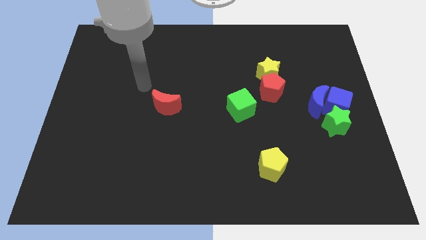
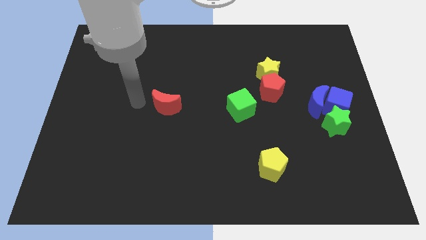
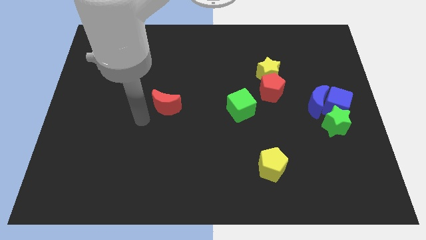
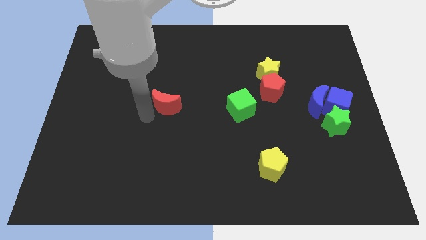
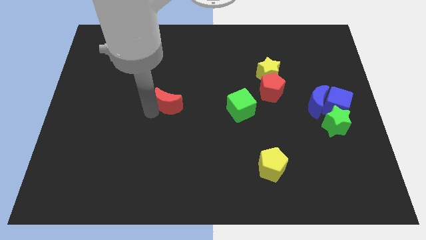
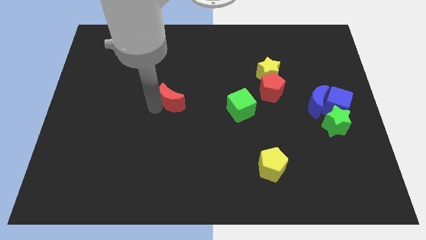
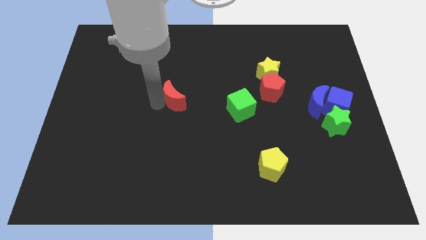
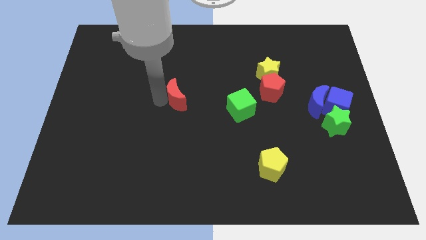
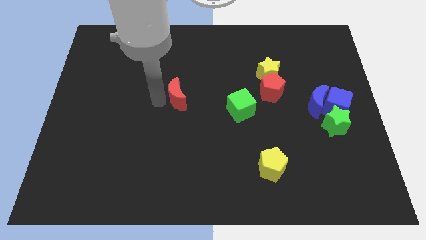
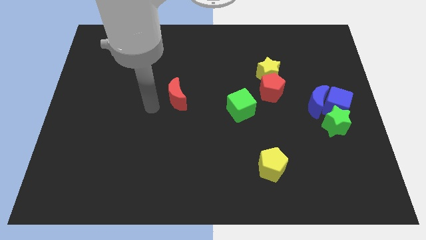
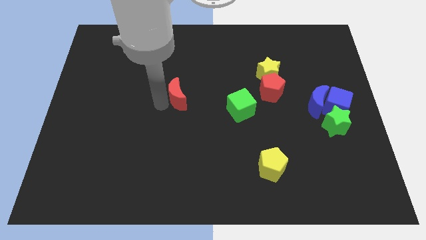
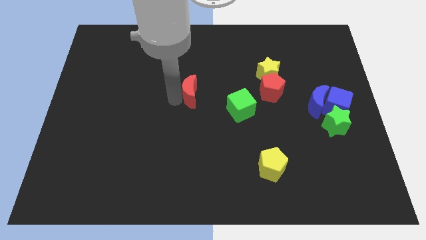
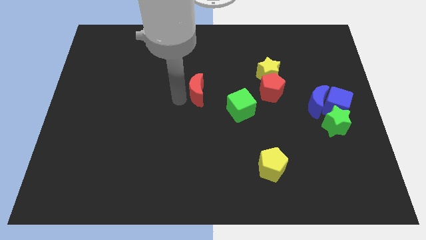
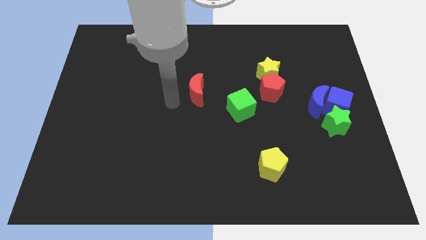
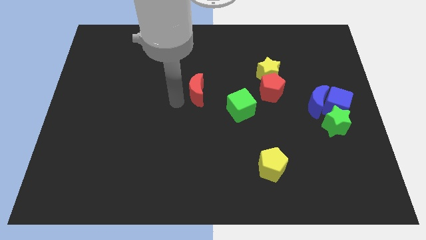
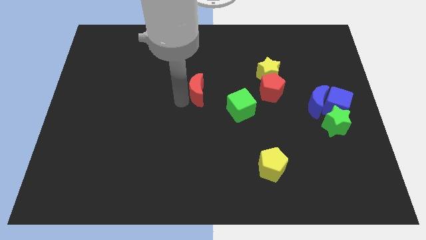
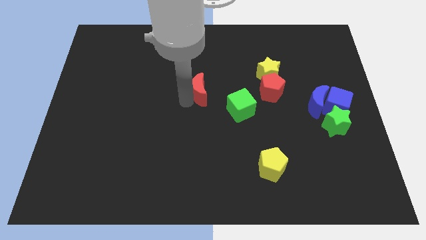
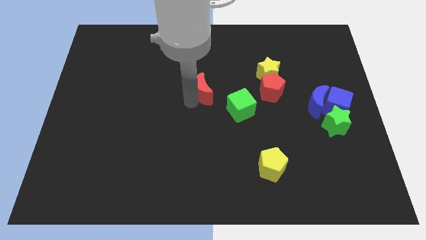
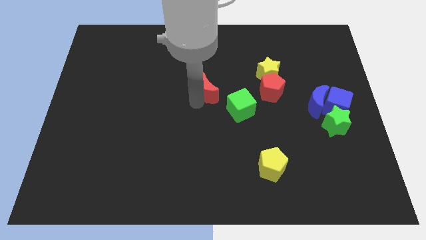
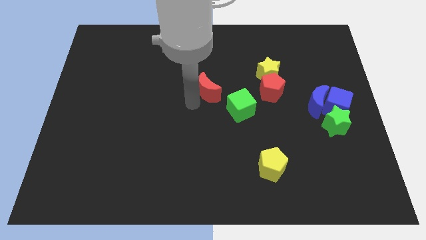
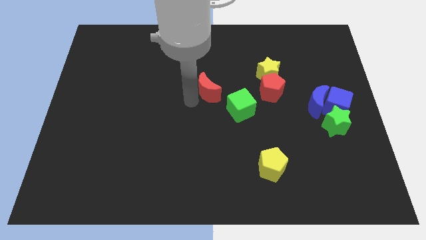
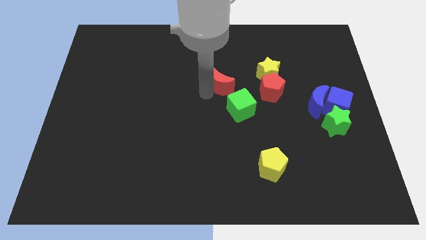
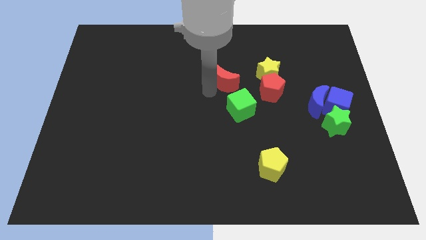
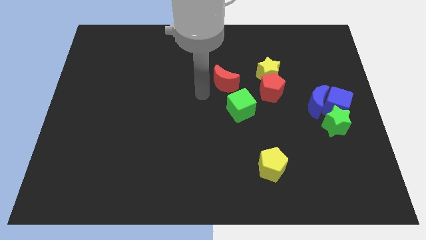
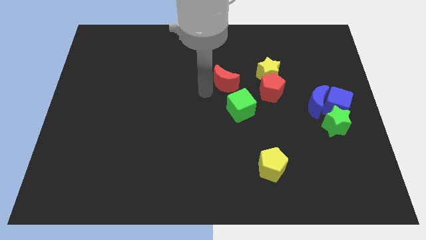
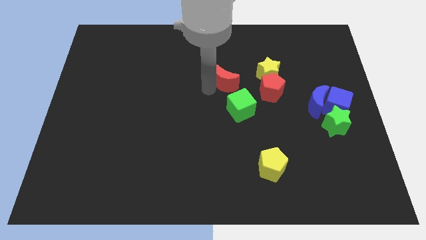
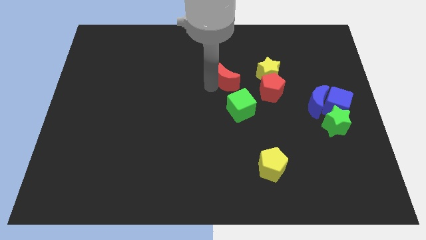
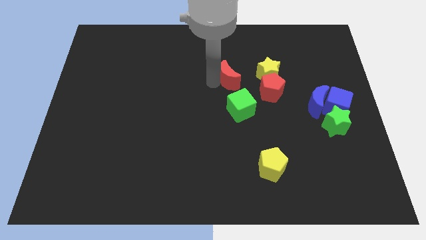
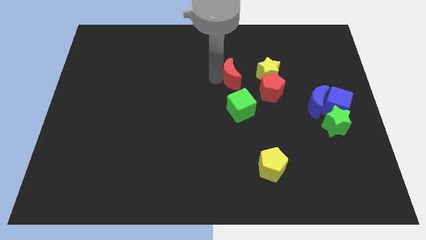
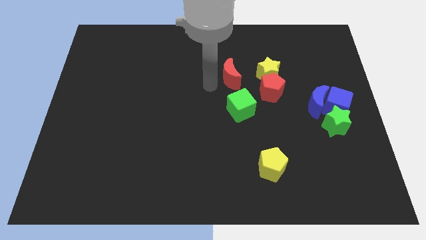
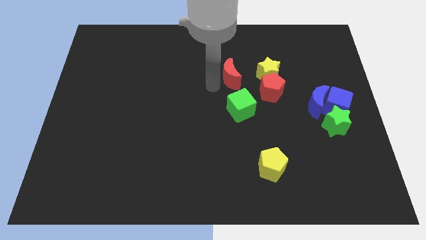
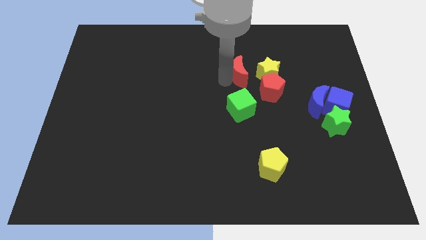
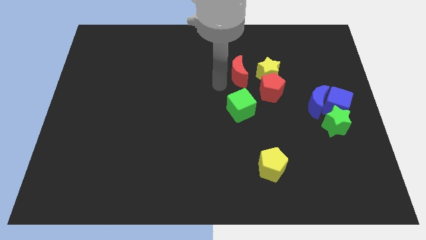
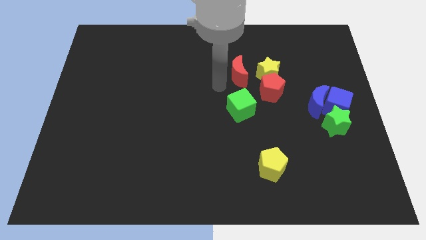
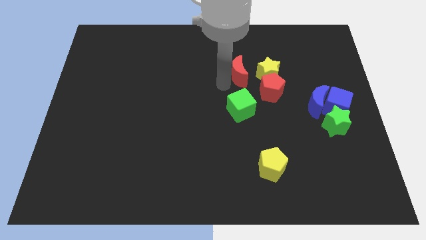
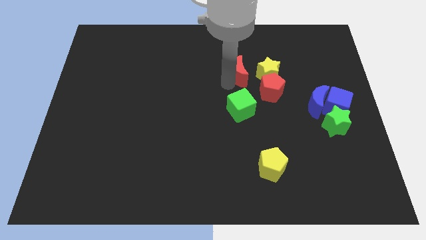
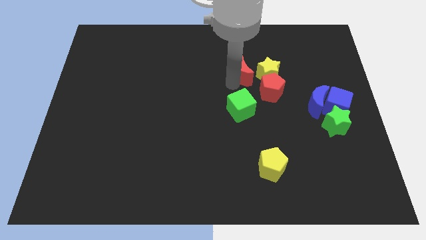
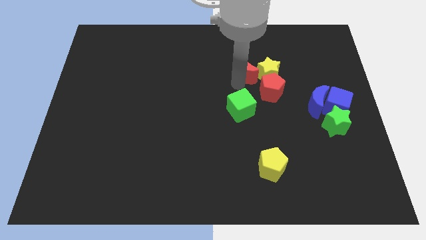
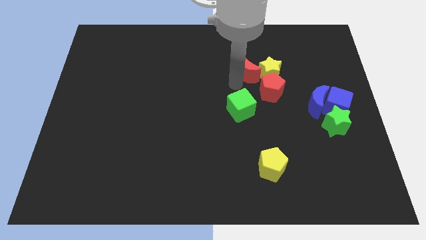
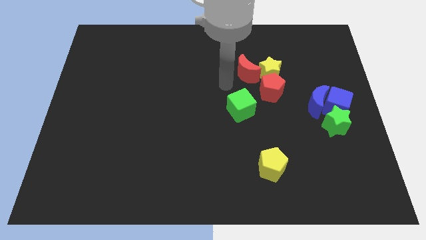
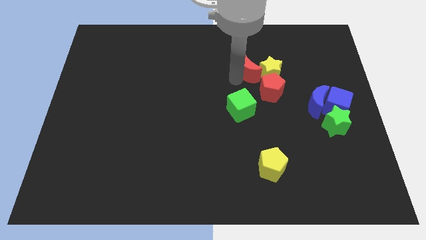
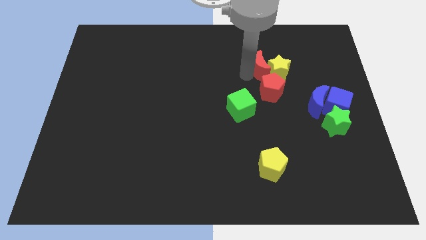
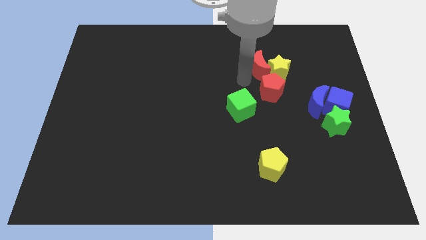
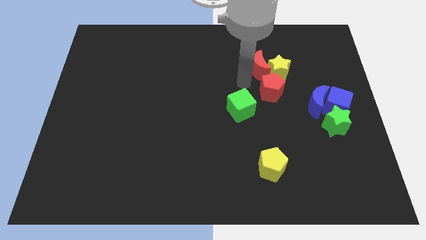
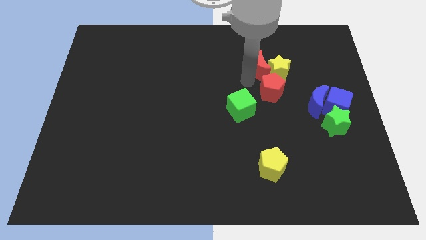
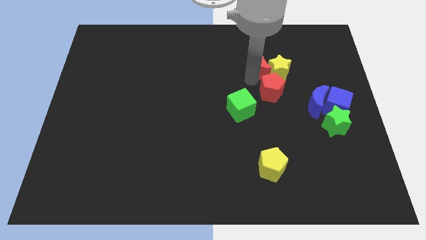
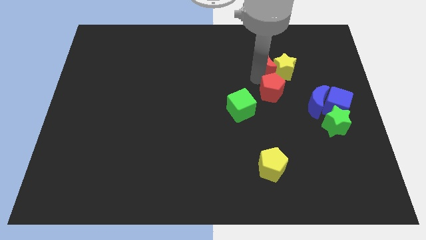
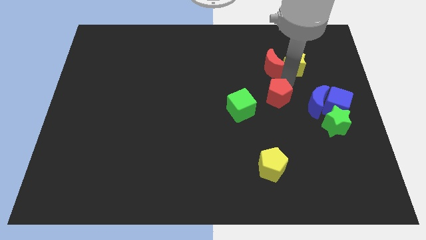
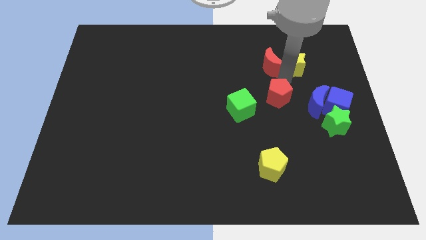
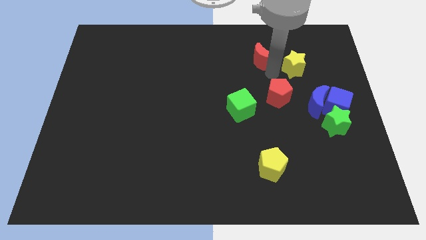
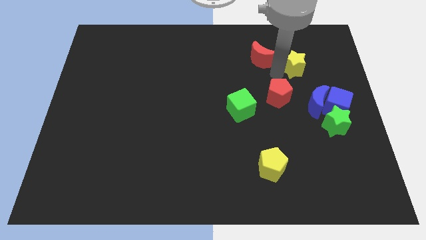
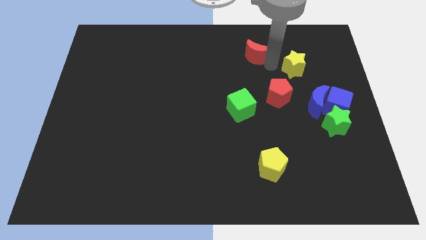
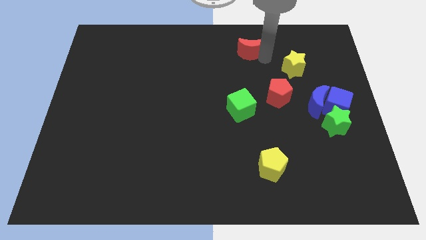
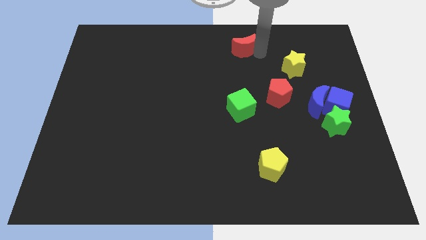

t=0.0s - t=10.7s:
push the red moon to the towards your base

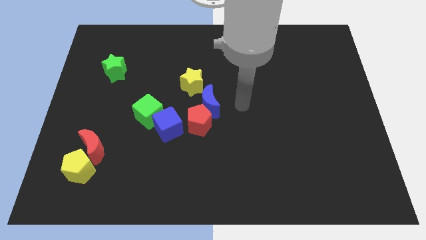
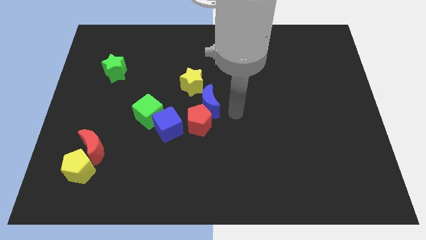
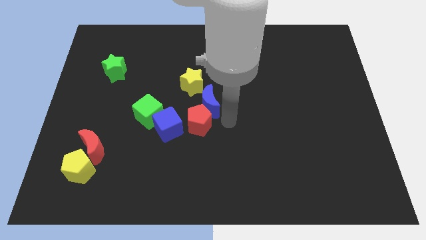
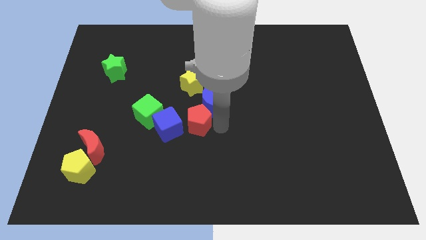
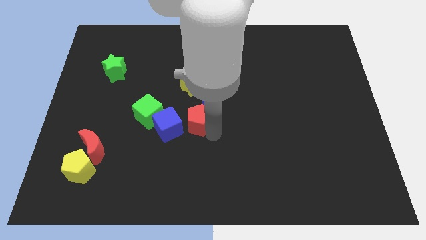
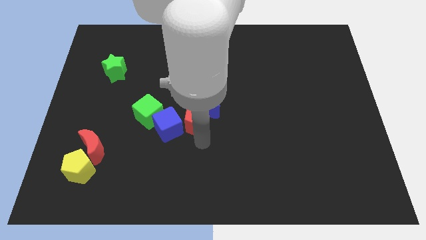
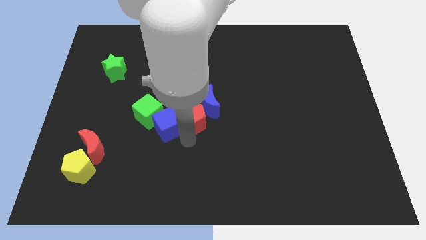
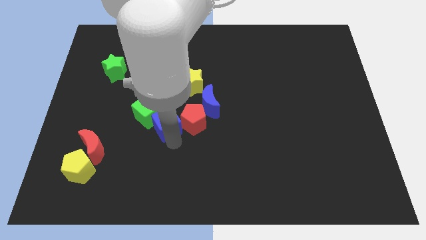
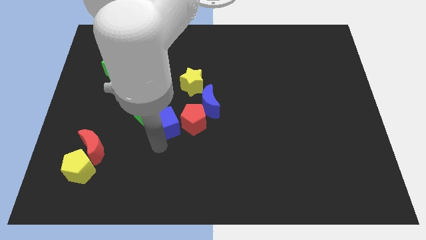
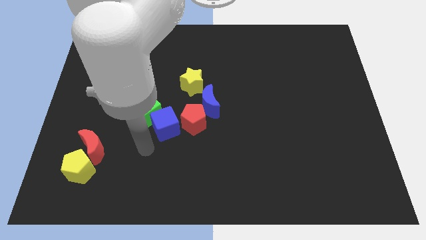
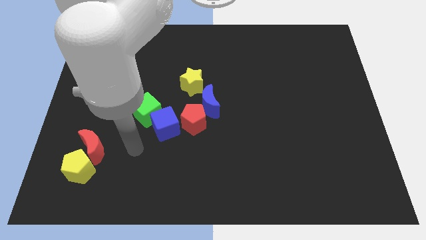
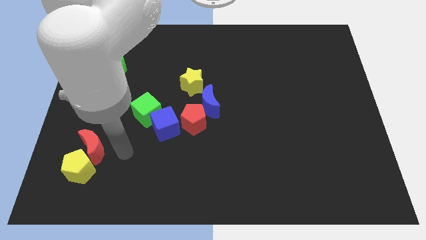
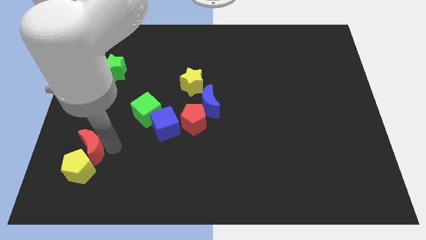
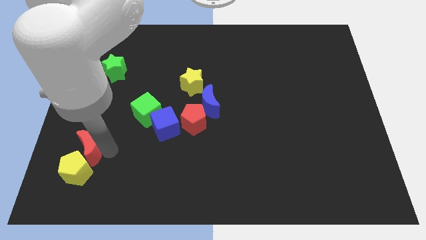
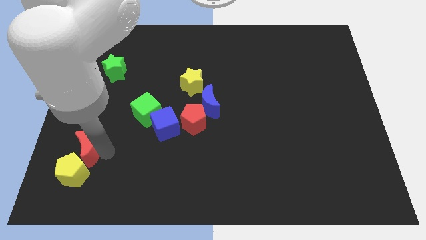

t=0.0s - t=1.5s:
move the yellow pentagon to the lower left corner
